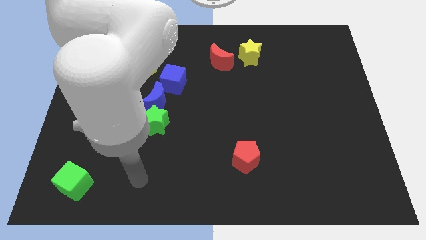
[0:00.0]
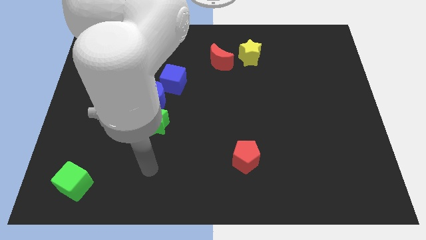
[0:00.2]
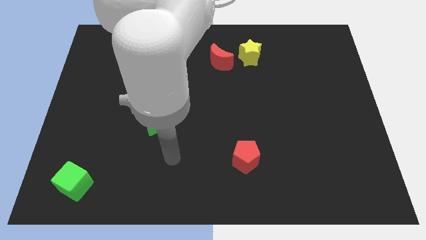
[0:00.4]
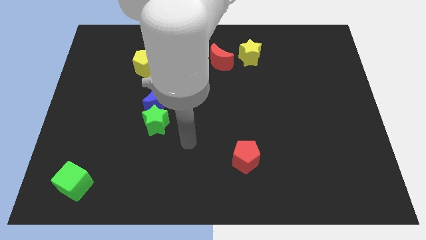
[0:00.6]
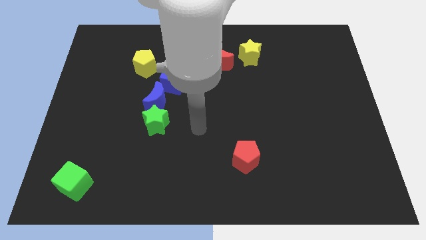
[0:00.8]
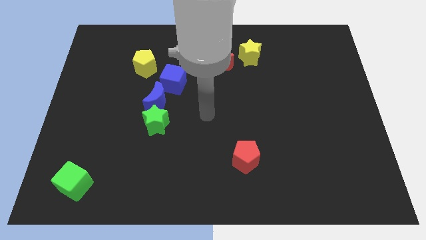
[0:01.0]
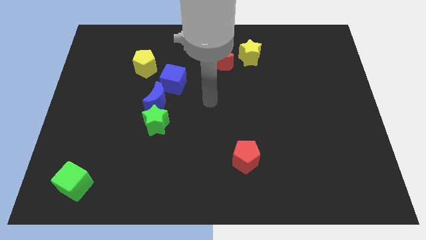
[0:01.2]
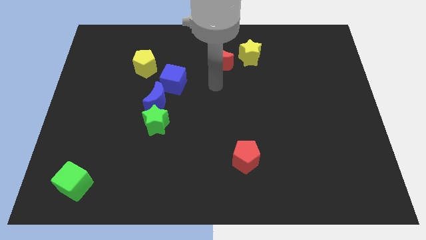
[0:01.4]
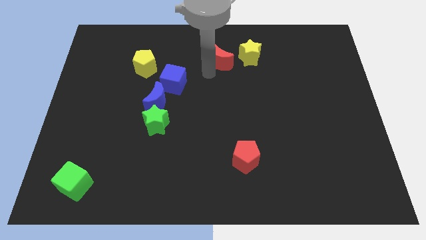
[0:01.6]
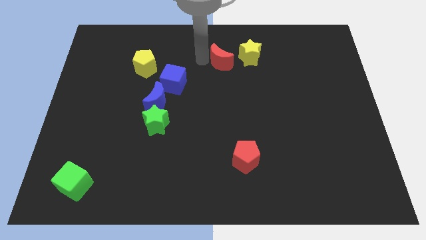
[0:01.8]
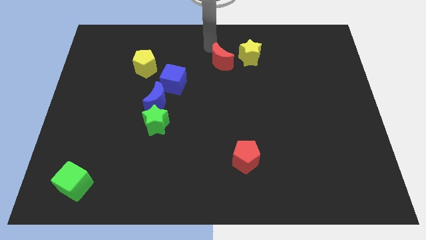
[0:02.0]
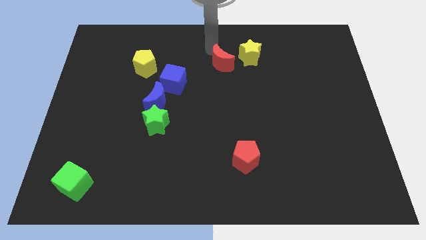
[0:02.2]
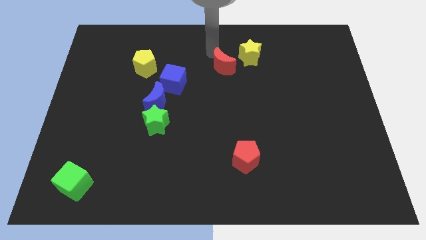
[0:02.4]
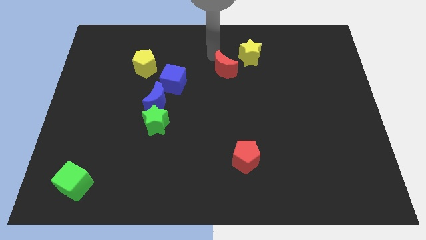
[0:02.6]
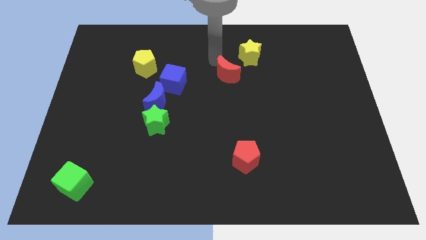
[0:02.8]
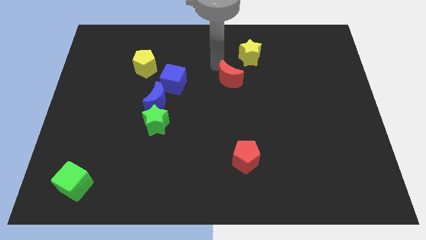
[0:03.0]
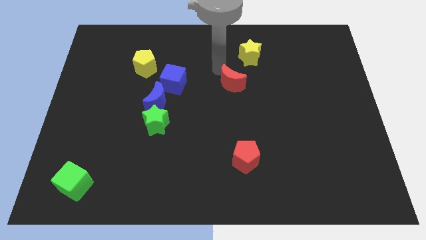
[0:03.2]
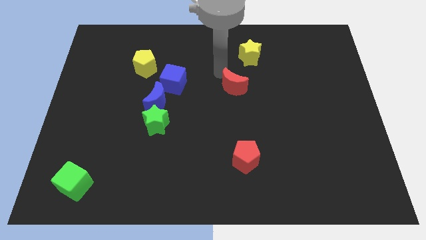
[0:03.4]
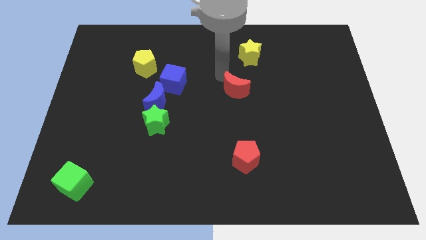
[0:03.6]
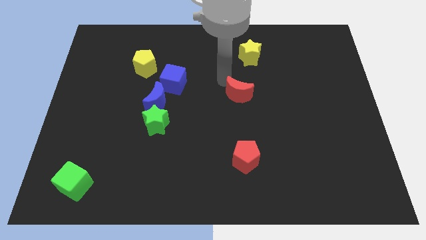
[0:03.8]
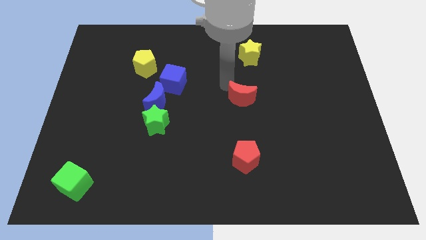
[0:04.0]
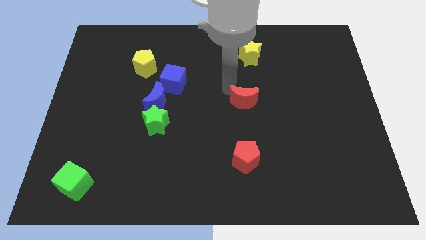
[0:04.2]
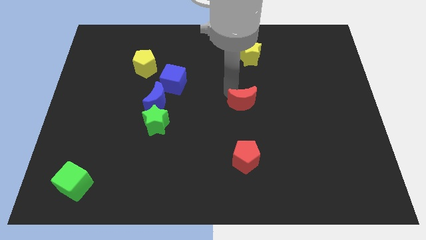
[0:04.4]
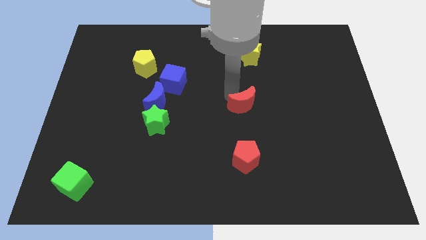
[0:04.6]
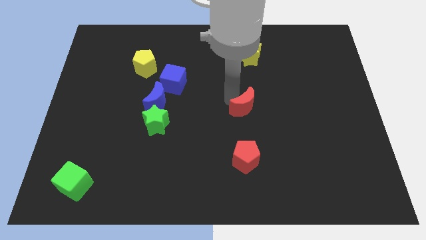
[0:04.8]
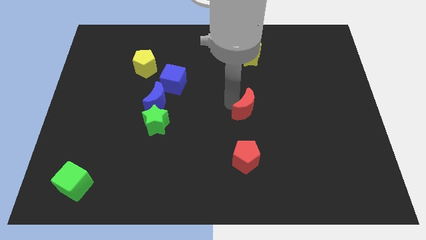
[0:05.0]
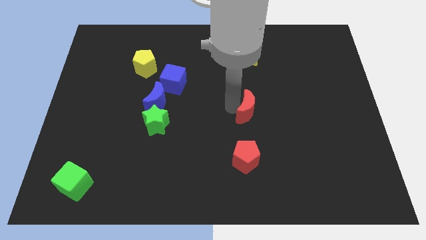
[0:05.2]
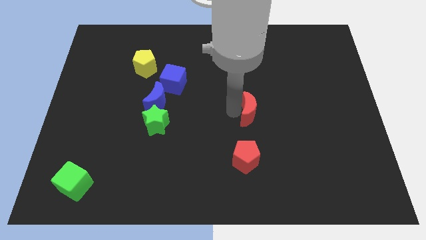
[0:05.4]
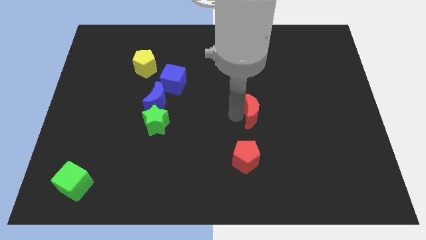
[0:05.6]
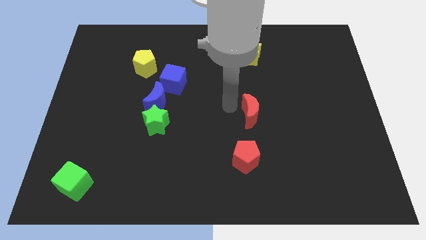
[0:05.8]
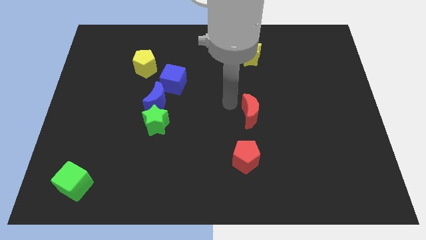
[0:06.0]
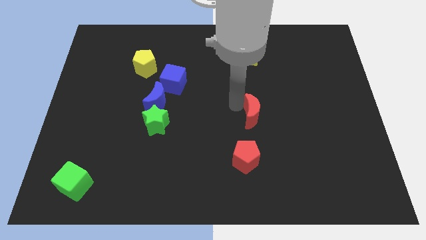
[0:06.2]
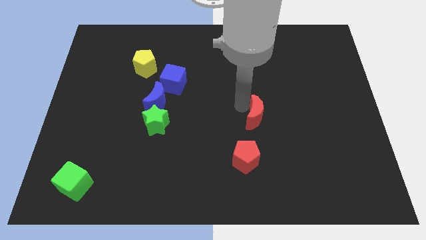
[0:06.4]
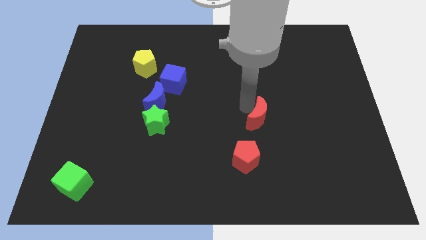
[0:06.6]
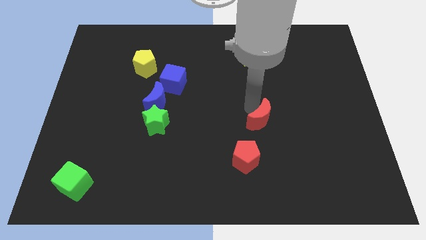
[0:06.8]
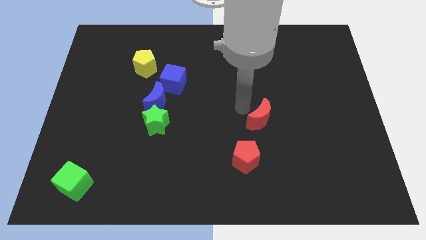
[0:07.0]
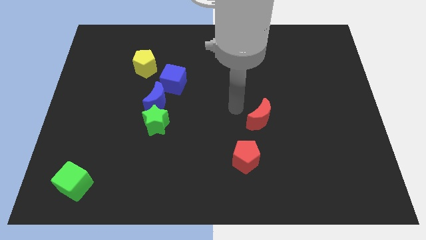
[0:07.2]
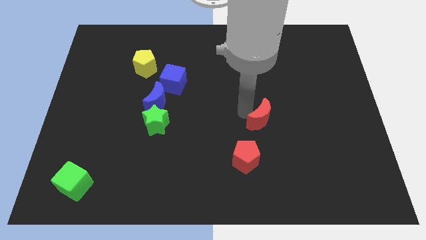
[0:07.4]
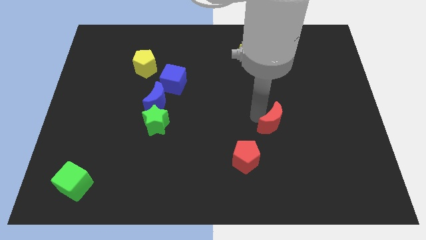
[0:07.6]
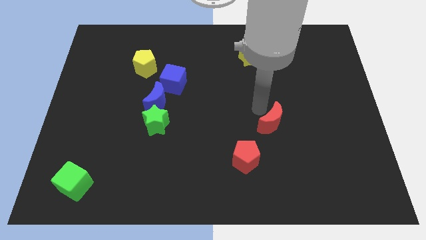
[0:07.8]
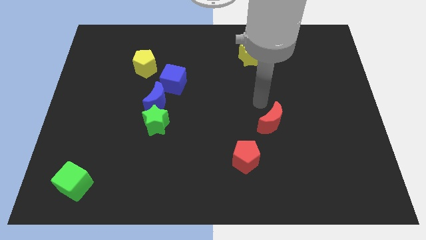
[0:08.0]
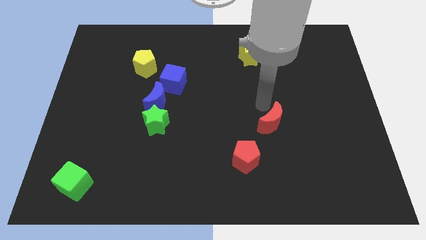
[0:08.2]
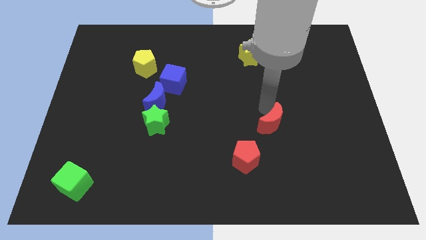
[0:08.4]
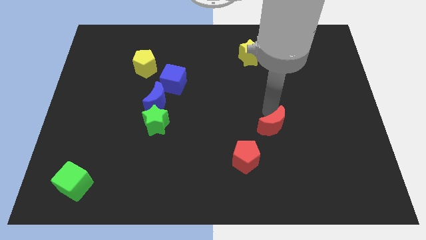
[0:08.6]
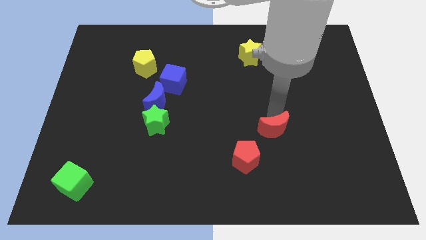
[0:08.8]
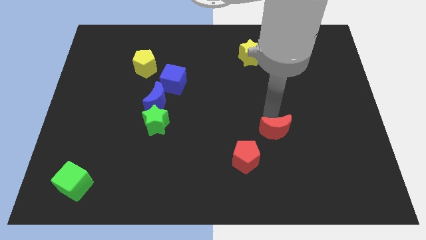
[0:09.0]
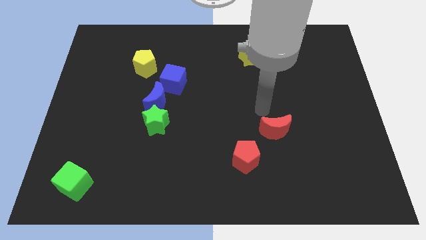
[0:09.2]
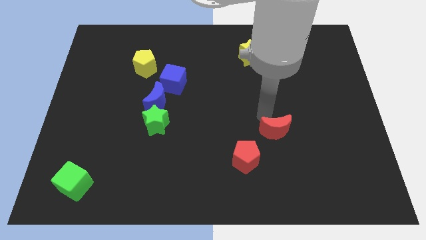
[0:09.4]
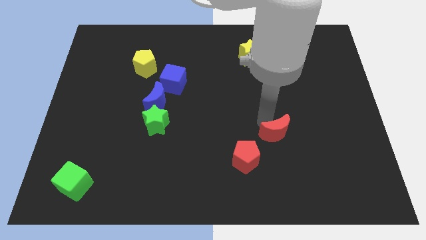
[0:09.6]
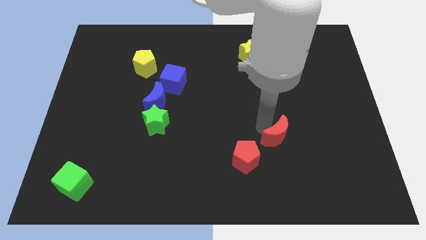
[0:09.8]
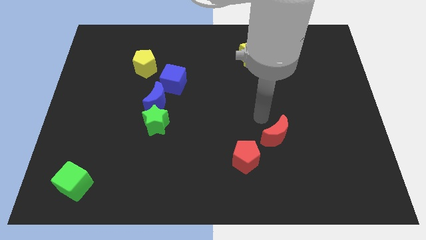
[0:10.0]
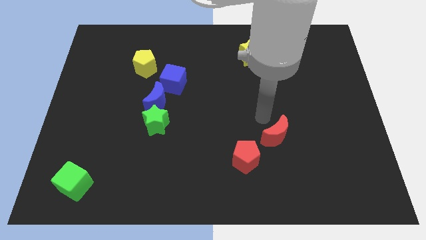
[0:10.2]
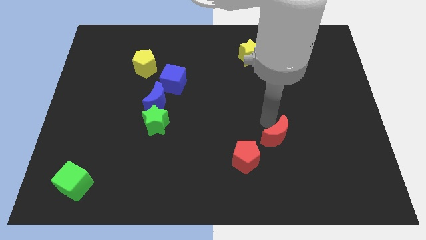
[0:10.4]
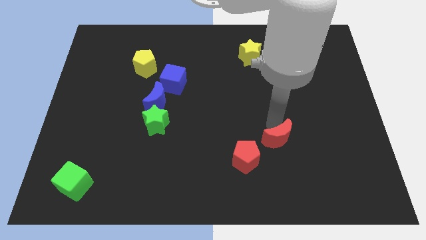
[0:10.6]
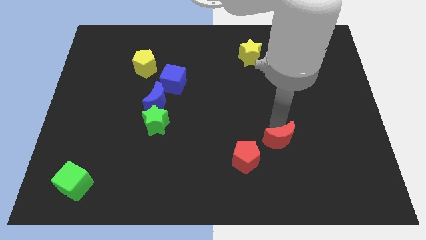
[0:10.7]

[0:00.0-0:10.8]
move the red moon right of the red pentagon

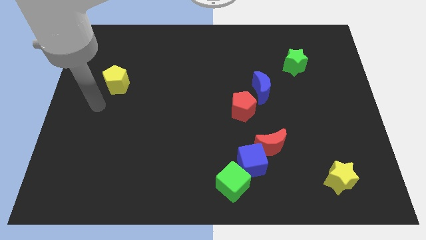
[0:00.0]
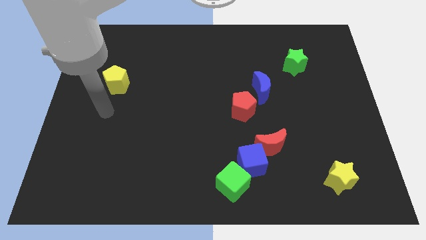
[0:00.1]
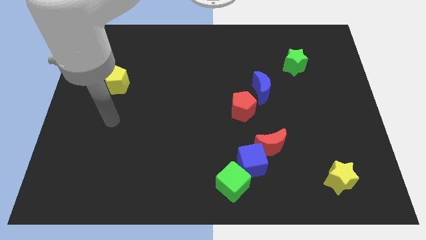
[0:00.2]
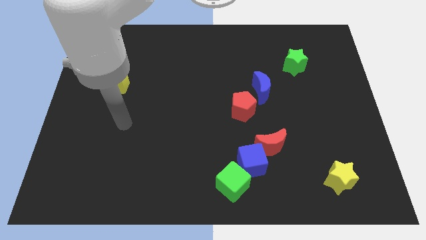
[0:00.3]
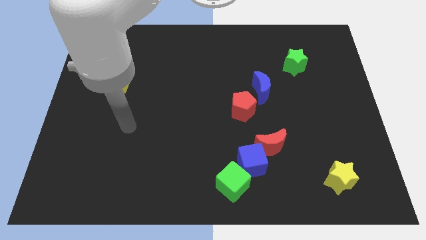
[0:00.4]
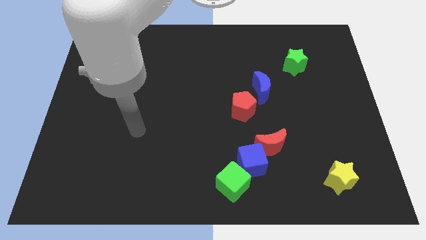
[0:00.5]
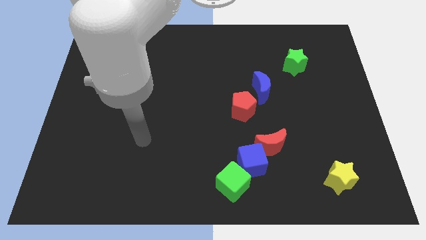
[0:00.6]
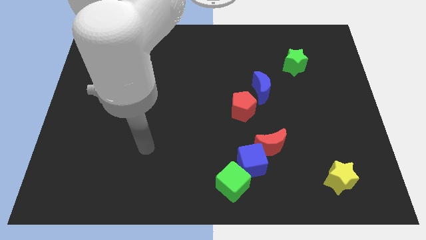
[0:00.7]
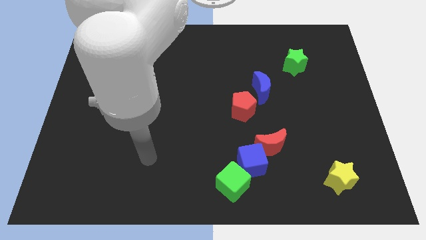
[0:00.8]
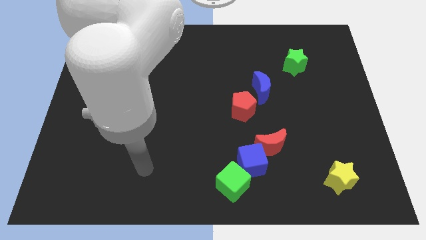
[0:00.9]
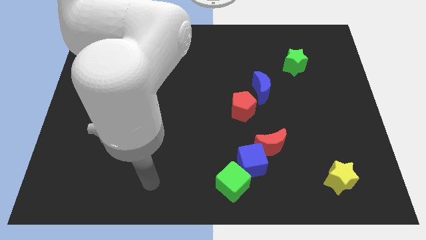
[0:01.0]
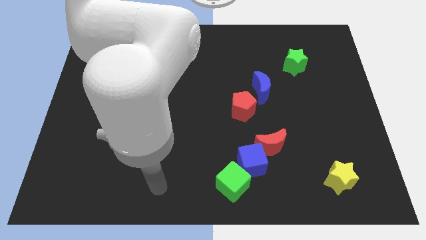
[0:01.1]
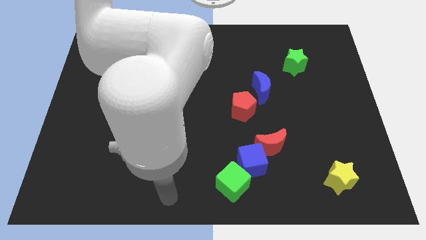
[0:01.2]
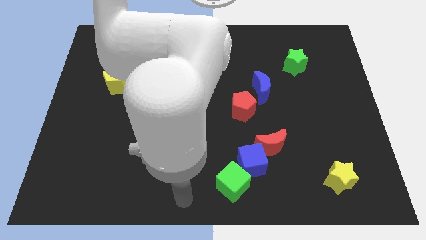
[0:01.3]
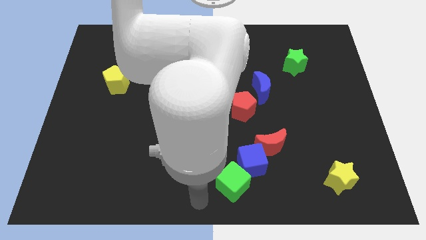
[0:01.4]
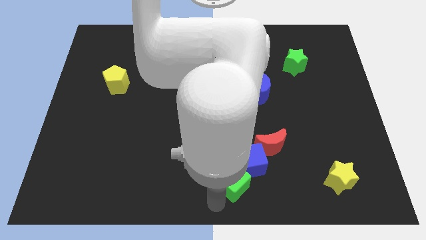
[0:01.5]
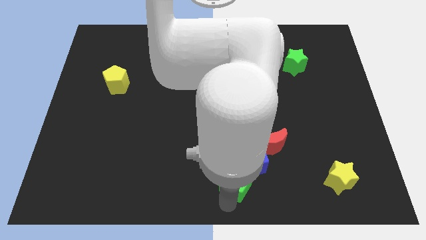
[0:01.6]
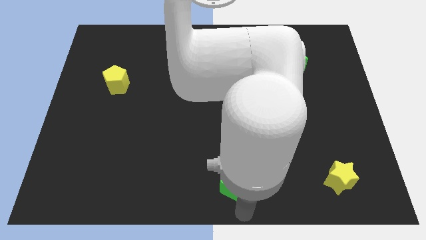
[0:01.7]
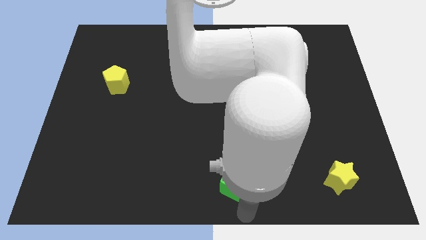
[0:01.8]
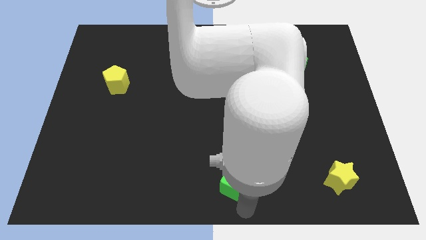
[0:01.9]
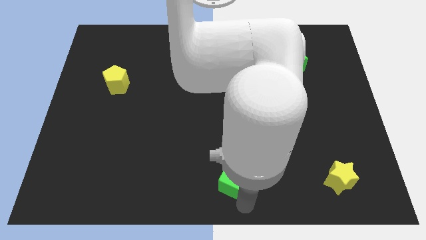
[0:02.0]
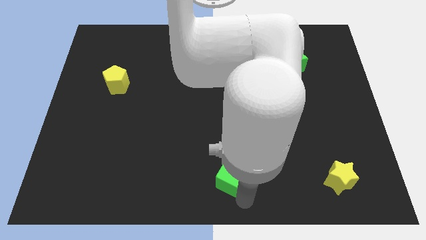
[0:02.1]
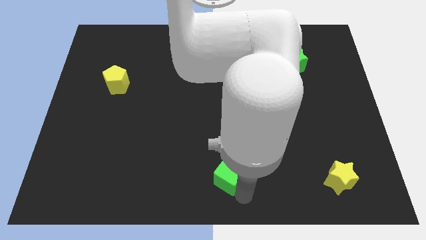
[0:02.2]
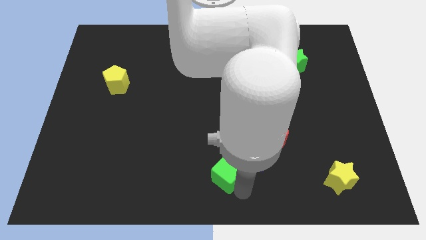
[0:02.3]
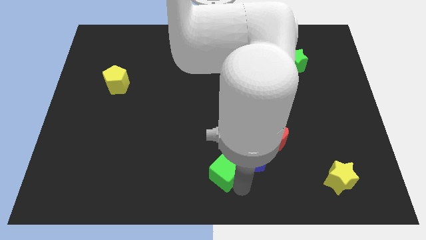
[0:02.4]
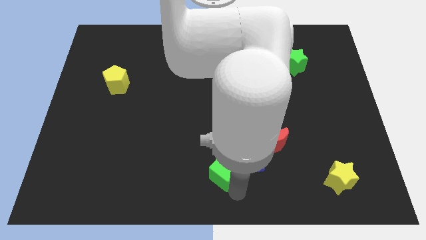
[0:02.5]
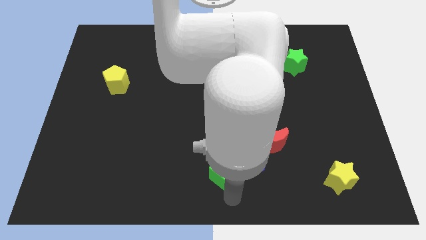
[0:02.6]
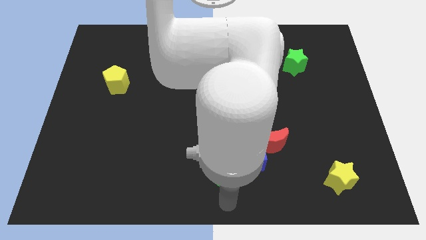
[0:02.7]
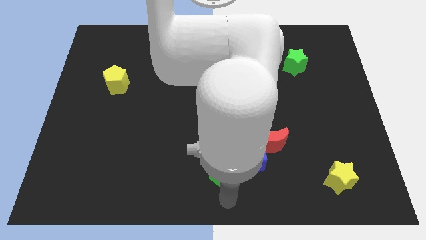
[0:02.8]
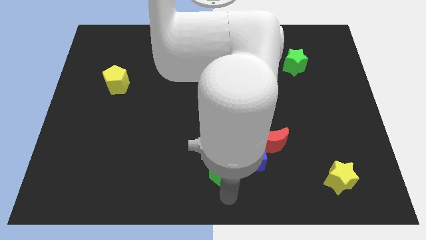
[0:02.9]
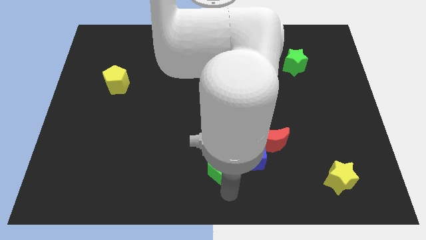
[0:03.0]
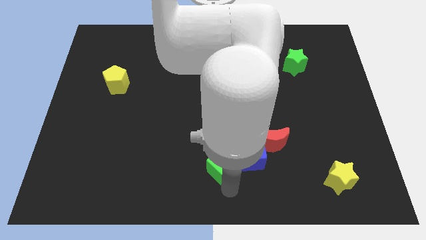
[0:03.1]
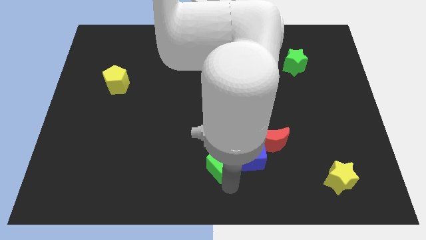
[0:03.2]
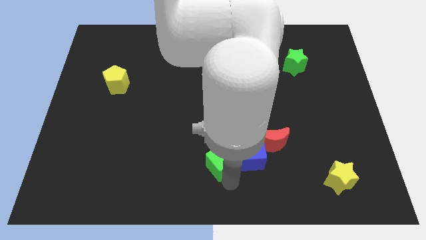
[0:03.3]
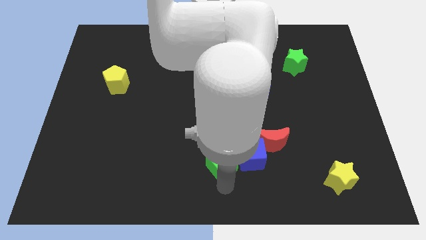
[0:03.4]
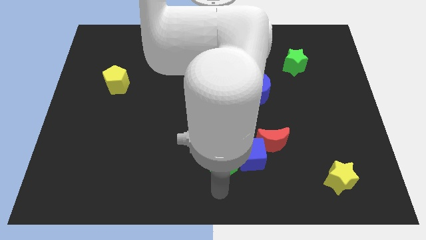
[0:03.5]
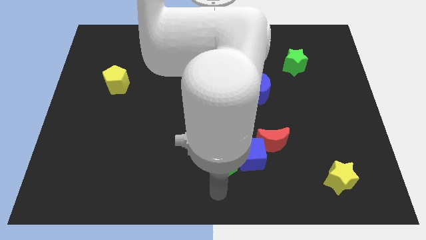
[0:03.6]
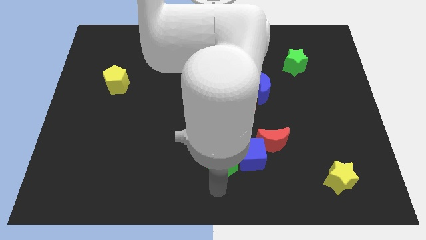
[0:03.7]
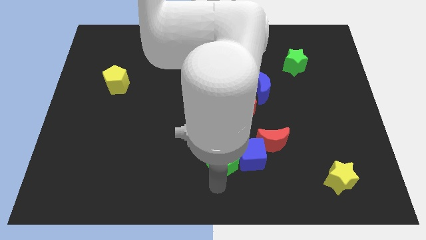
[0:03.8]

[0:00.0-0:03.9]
put the green cube left of the red moon
